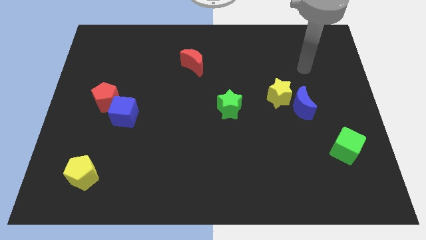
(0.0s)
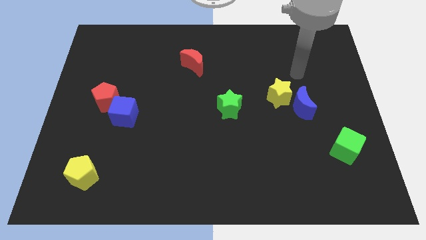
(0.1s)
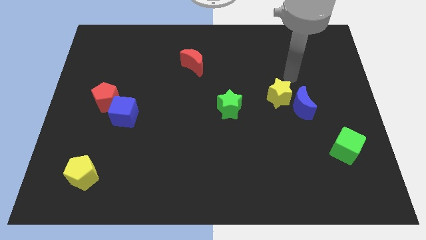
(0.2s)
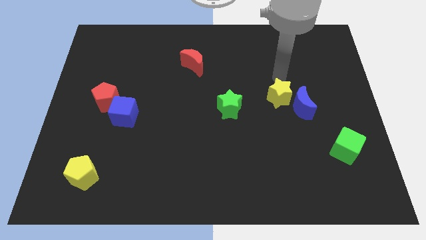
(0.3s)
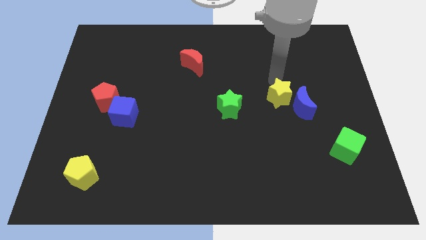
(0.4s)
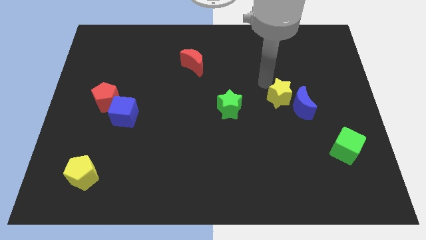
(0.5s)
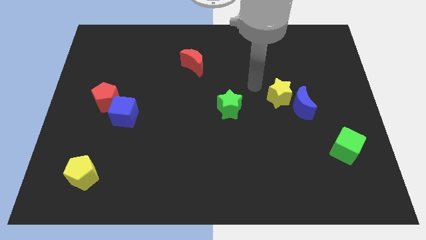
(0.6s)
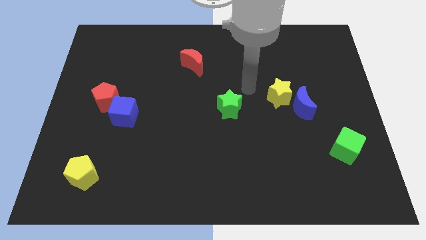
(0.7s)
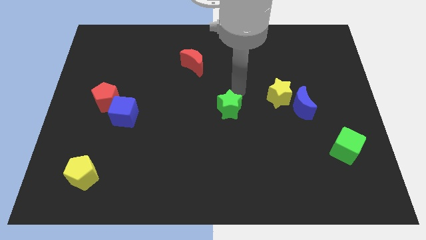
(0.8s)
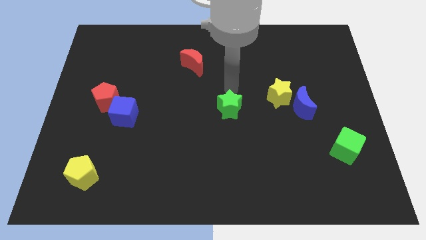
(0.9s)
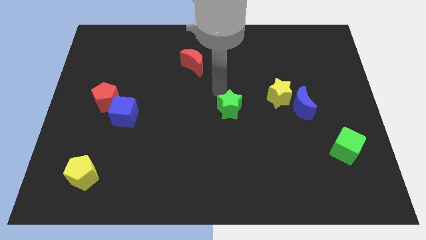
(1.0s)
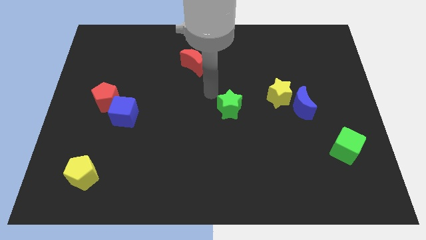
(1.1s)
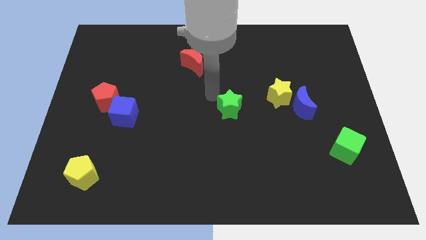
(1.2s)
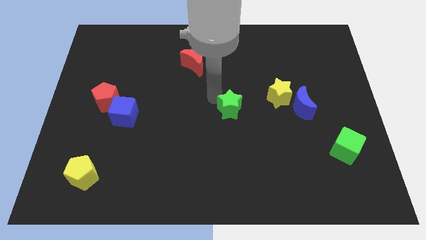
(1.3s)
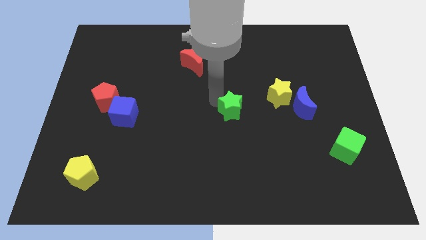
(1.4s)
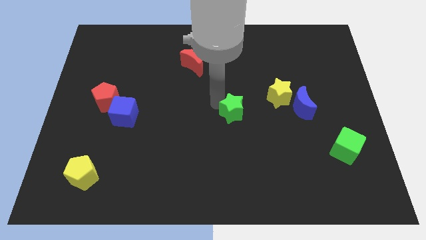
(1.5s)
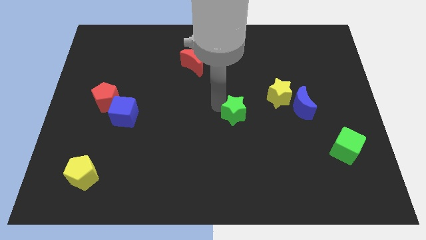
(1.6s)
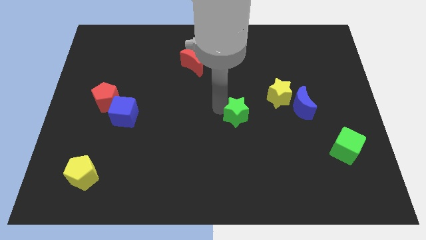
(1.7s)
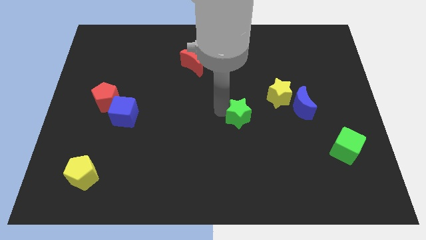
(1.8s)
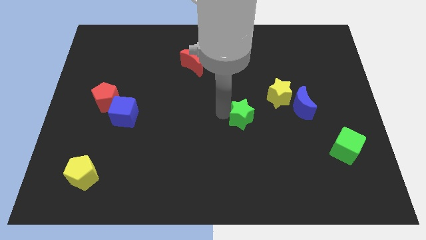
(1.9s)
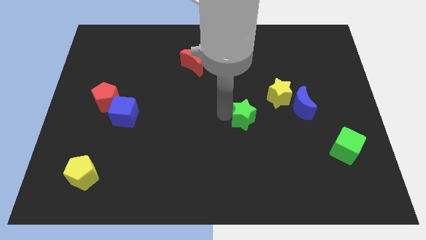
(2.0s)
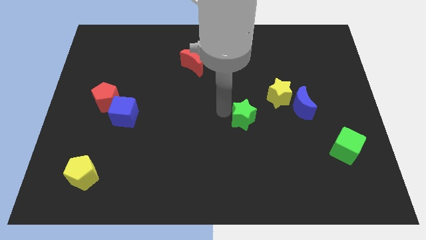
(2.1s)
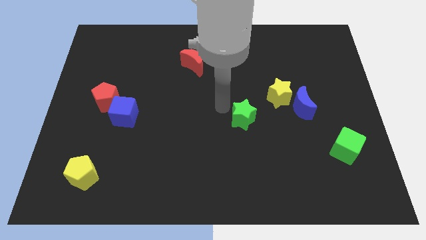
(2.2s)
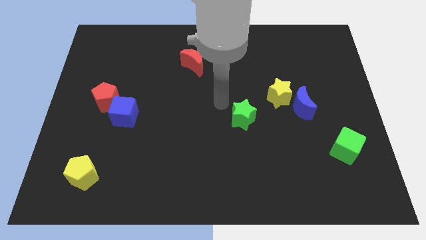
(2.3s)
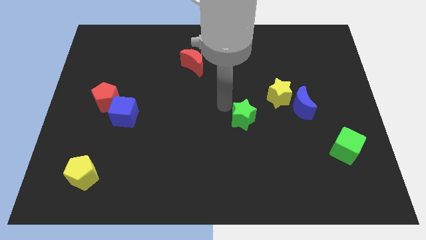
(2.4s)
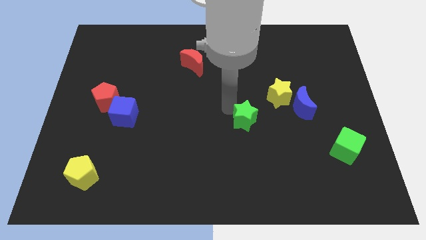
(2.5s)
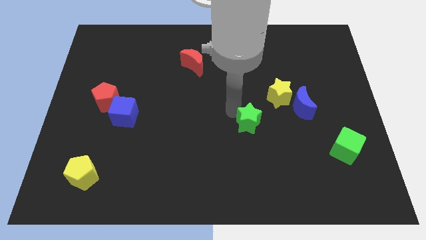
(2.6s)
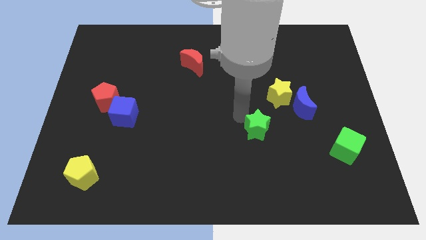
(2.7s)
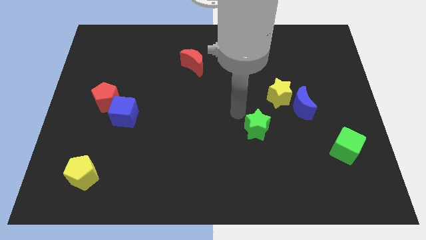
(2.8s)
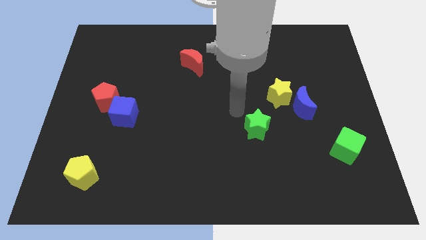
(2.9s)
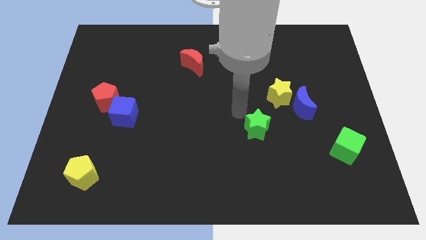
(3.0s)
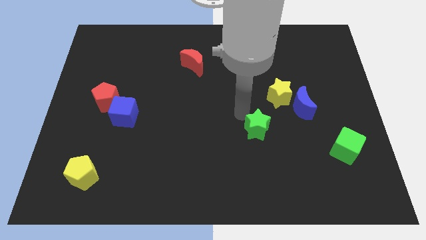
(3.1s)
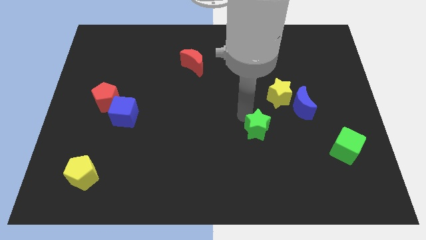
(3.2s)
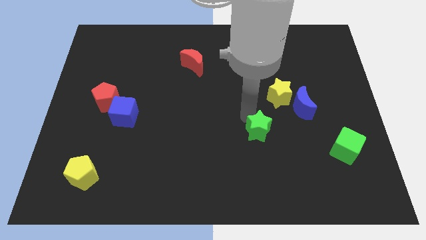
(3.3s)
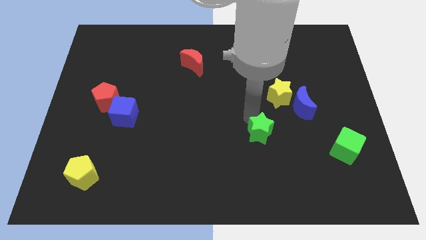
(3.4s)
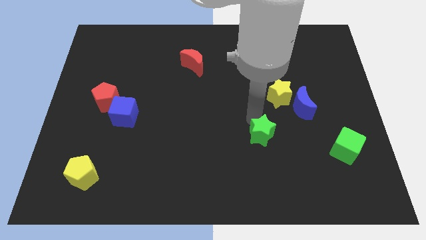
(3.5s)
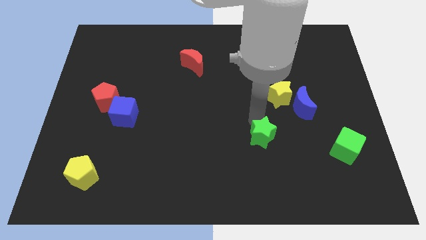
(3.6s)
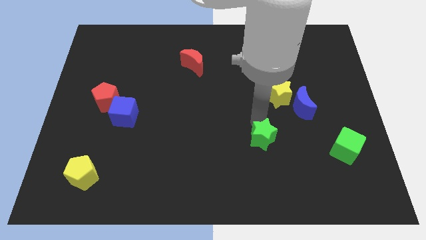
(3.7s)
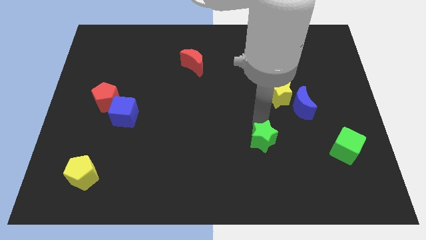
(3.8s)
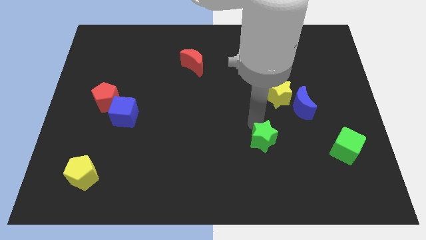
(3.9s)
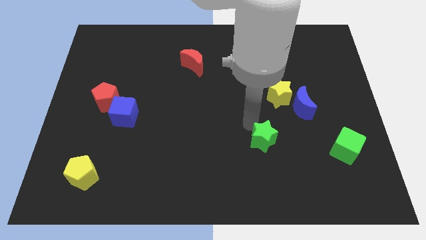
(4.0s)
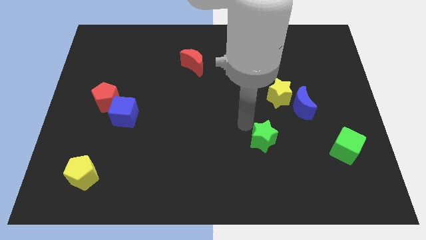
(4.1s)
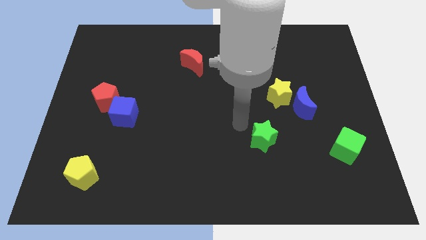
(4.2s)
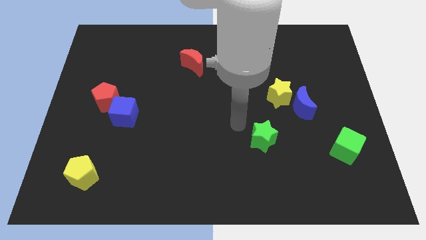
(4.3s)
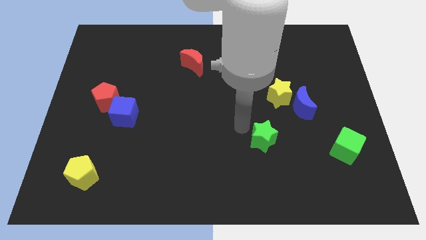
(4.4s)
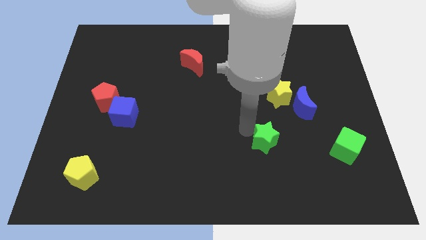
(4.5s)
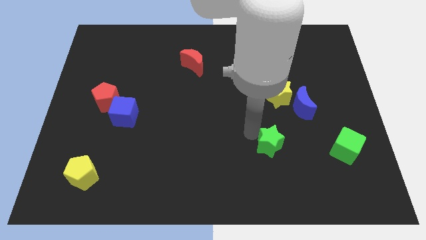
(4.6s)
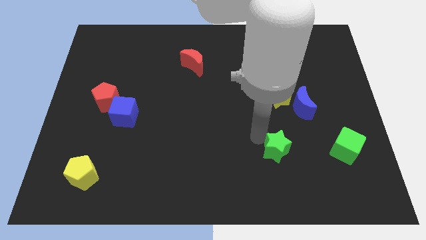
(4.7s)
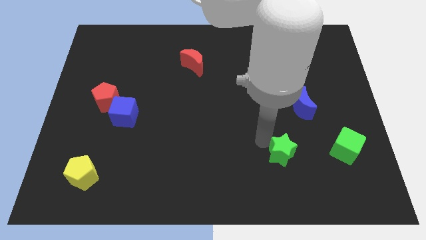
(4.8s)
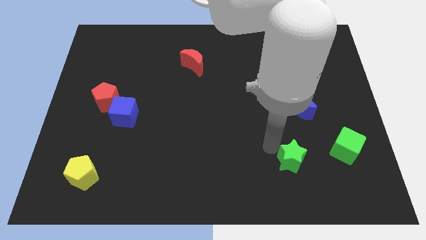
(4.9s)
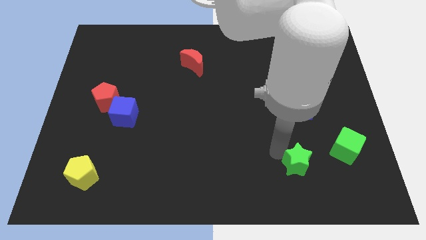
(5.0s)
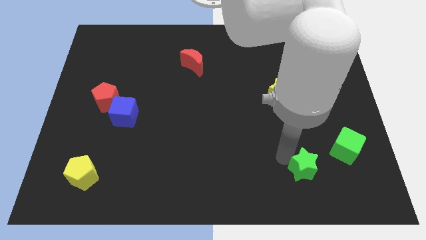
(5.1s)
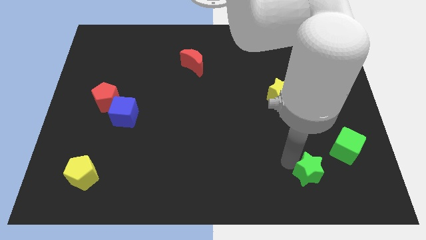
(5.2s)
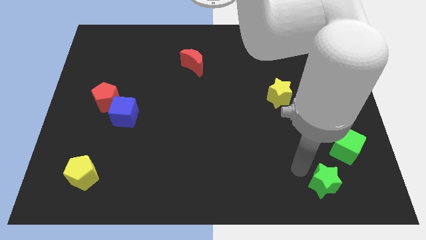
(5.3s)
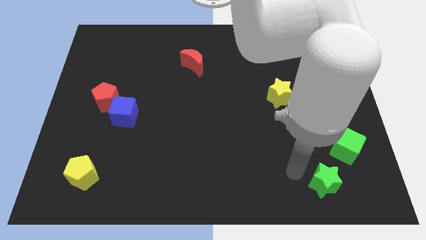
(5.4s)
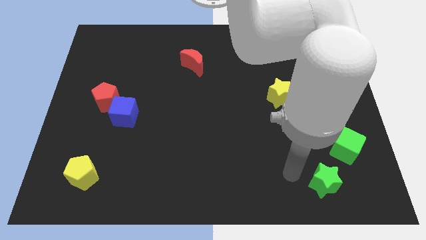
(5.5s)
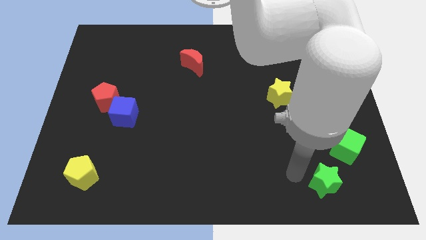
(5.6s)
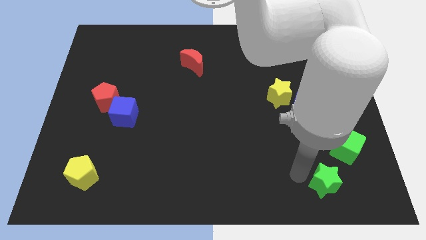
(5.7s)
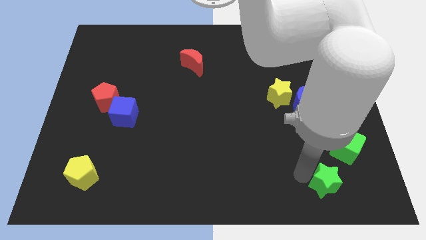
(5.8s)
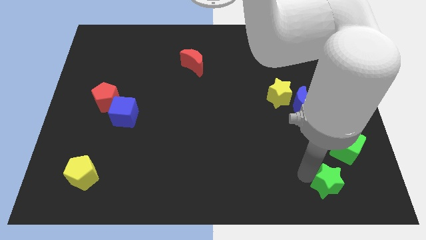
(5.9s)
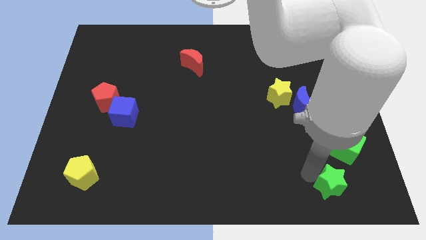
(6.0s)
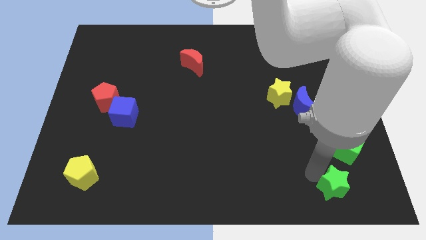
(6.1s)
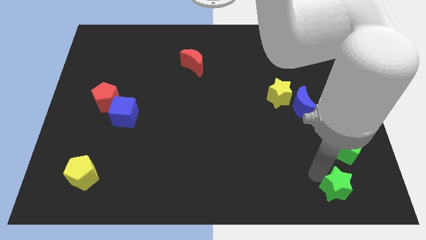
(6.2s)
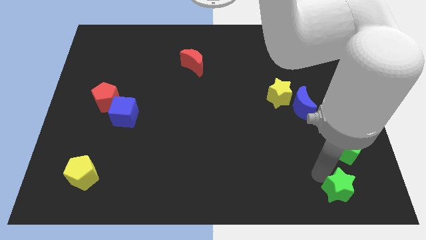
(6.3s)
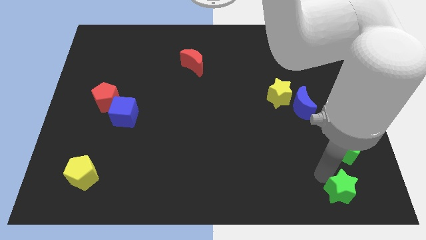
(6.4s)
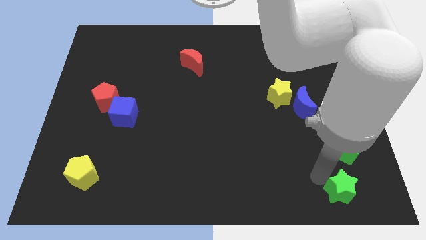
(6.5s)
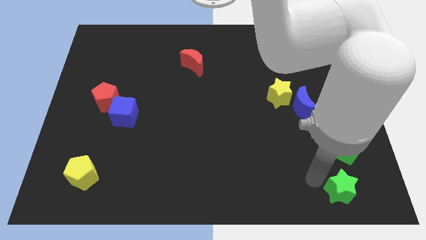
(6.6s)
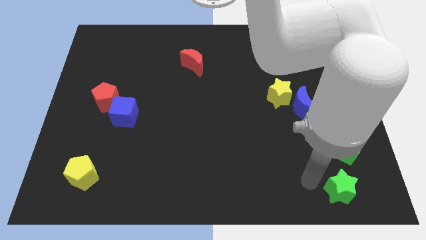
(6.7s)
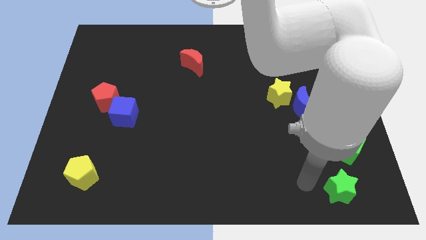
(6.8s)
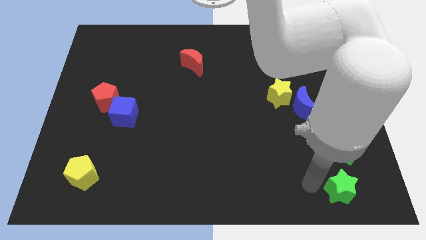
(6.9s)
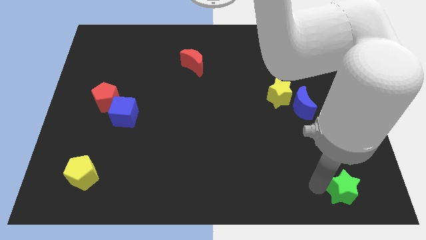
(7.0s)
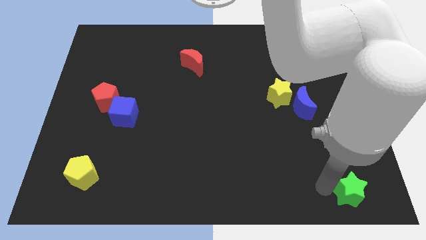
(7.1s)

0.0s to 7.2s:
slide the green star to the bottom right corner
